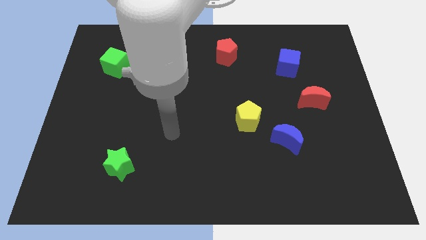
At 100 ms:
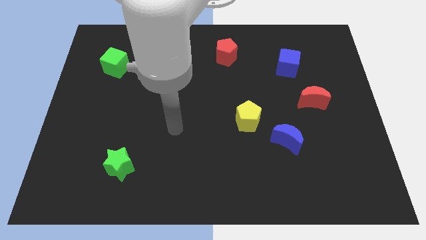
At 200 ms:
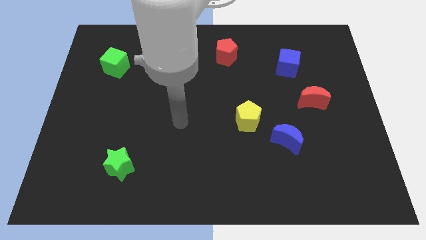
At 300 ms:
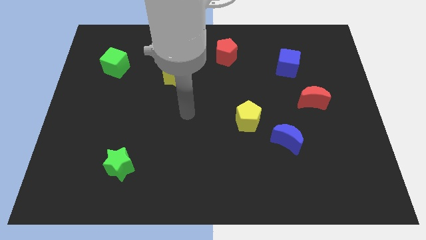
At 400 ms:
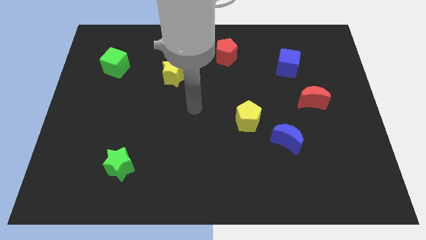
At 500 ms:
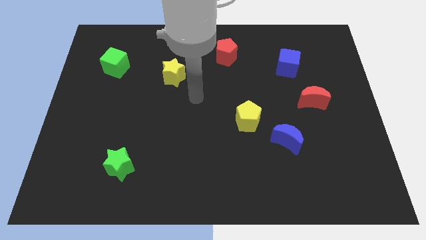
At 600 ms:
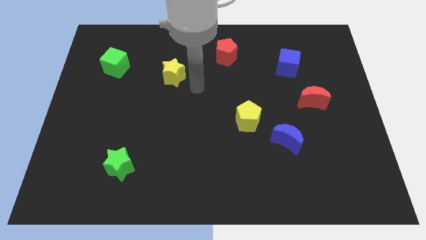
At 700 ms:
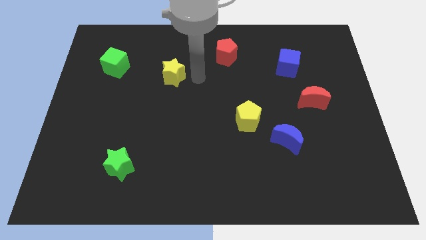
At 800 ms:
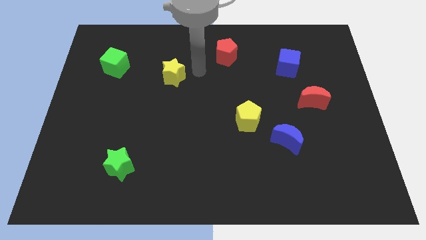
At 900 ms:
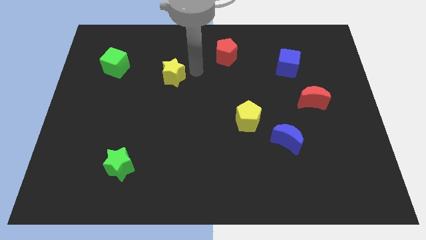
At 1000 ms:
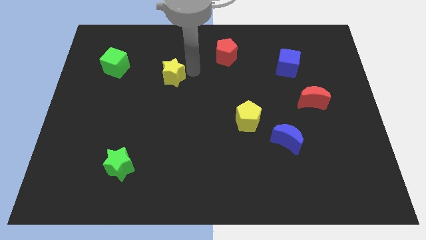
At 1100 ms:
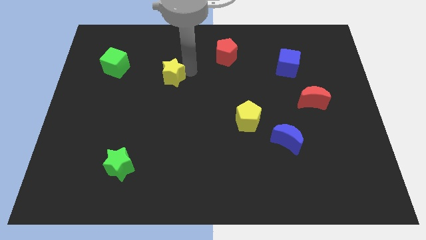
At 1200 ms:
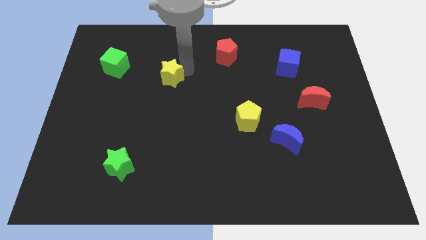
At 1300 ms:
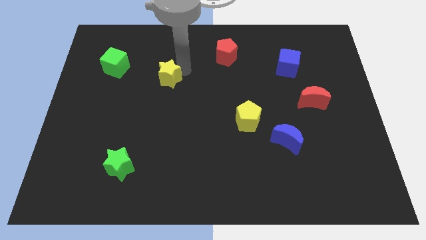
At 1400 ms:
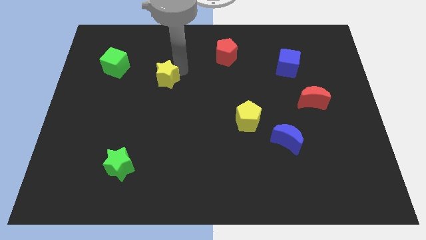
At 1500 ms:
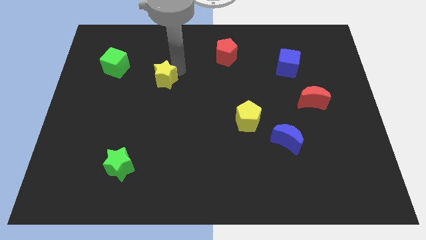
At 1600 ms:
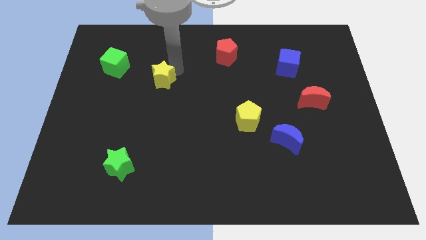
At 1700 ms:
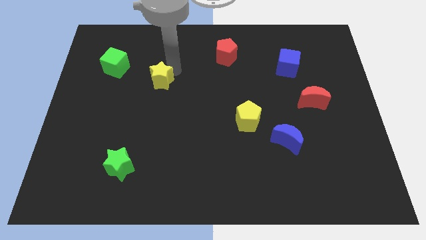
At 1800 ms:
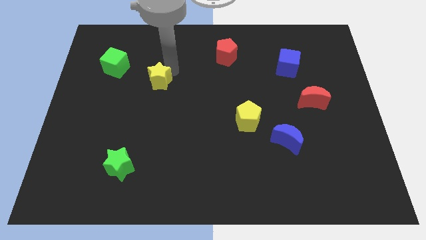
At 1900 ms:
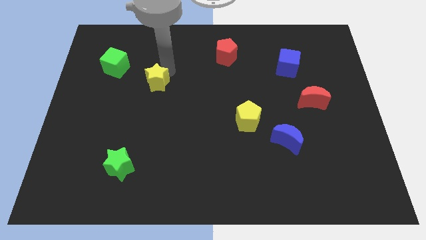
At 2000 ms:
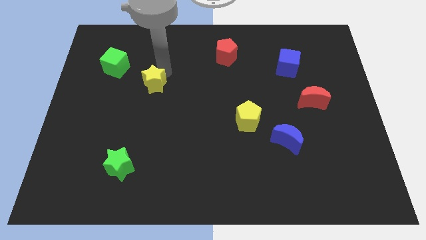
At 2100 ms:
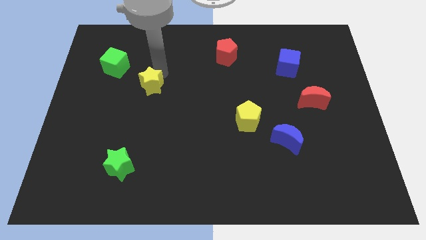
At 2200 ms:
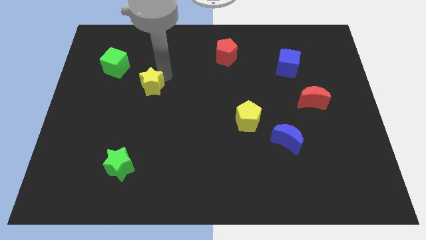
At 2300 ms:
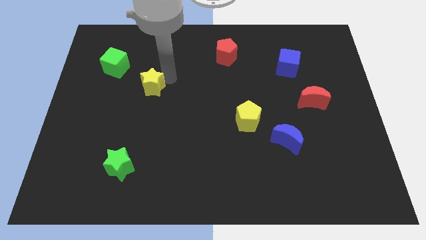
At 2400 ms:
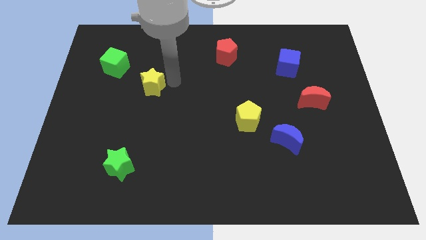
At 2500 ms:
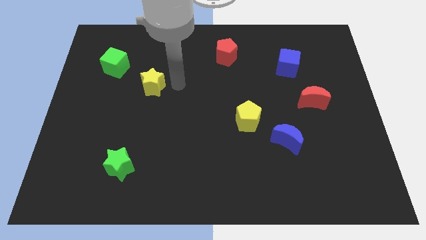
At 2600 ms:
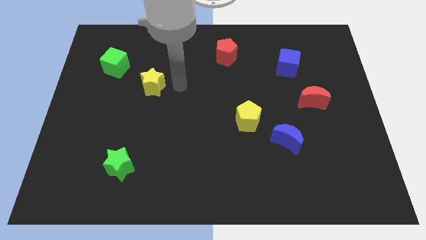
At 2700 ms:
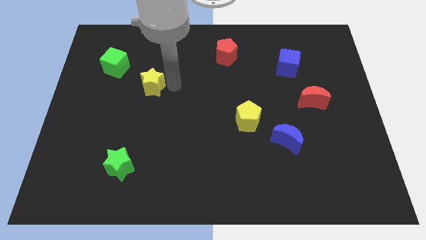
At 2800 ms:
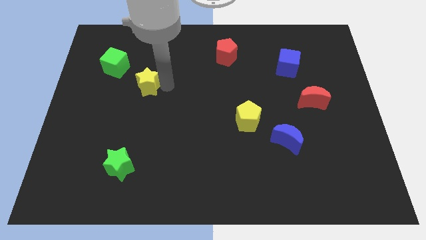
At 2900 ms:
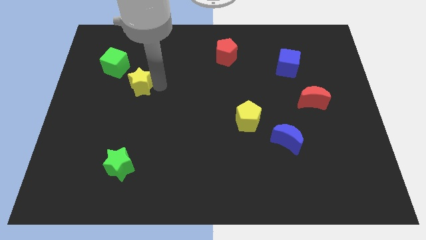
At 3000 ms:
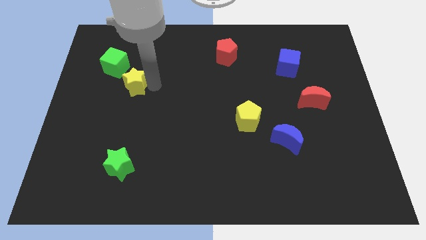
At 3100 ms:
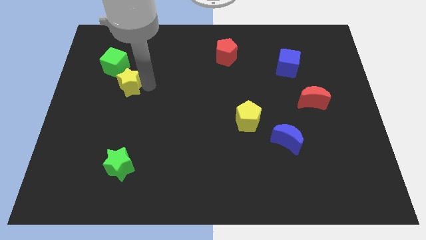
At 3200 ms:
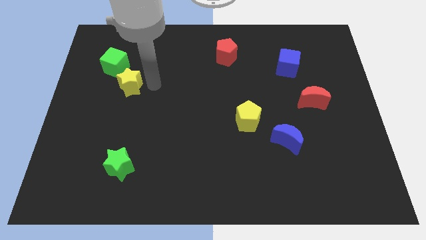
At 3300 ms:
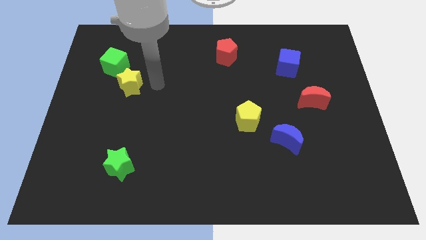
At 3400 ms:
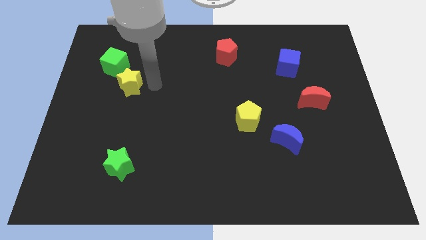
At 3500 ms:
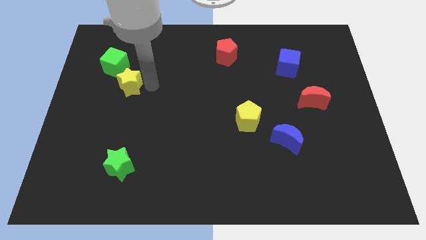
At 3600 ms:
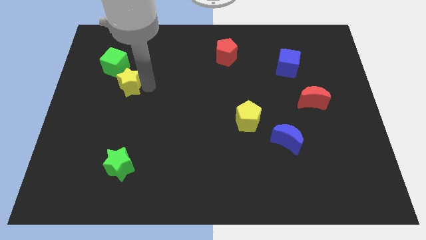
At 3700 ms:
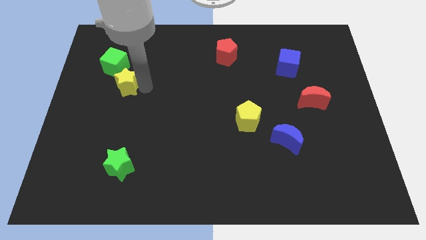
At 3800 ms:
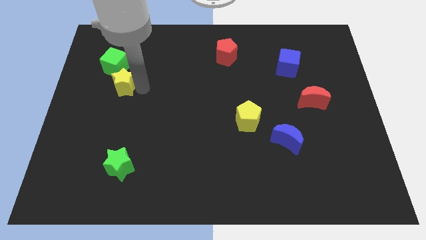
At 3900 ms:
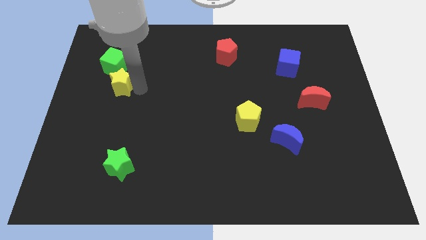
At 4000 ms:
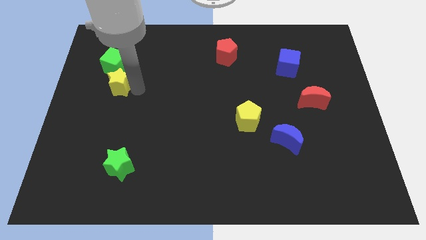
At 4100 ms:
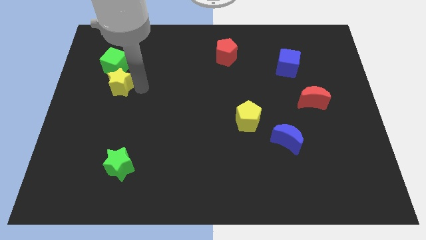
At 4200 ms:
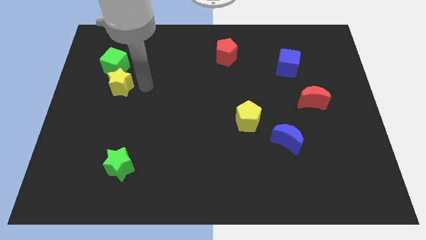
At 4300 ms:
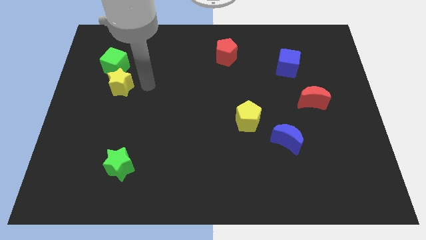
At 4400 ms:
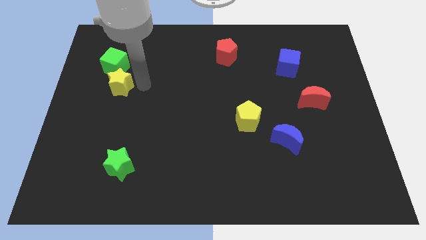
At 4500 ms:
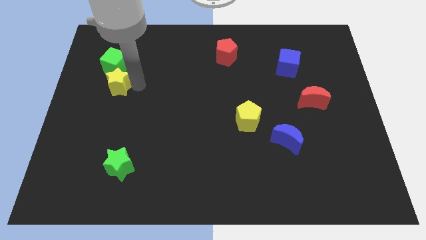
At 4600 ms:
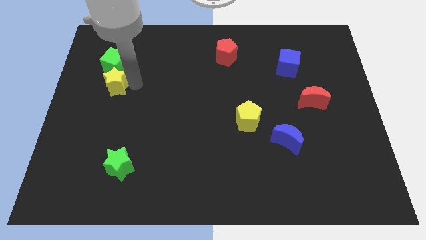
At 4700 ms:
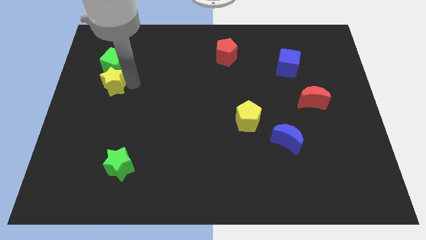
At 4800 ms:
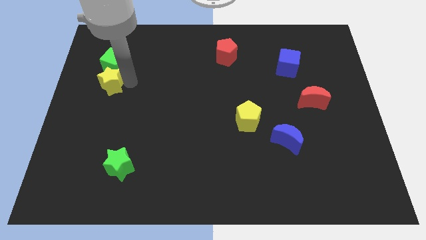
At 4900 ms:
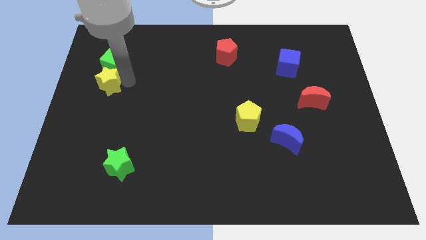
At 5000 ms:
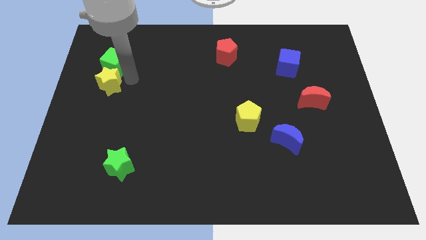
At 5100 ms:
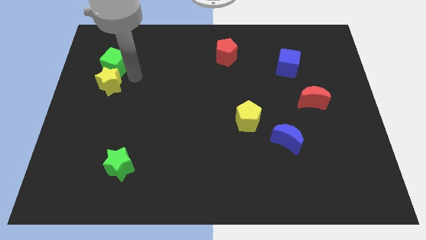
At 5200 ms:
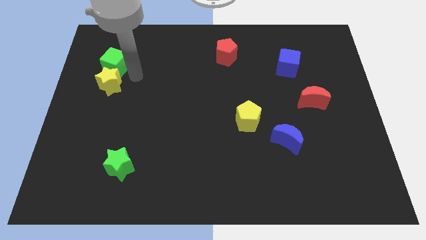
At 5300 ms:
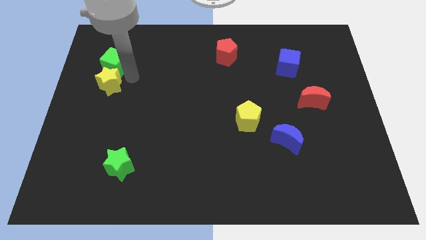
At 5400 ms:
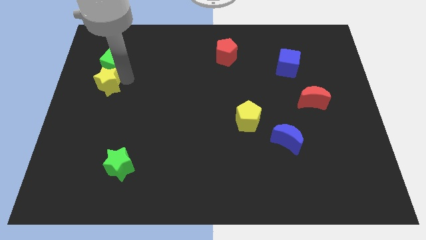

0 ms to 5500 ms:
move the yellow star to the left side

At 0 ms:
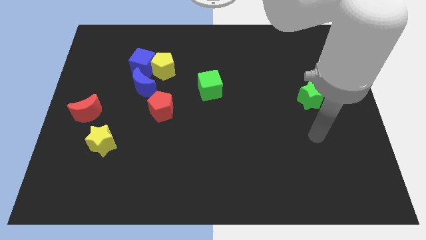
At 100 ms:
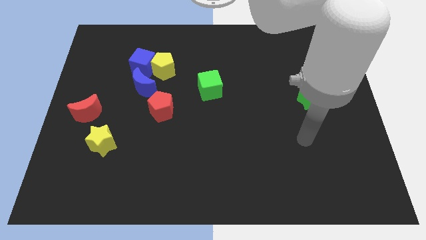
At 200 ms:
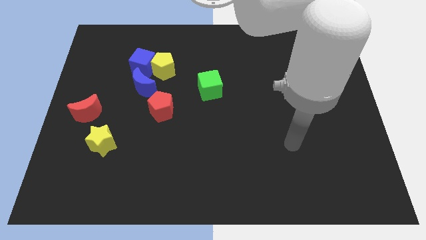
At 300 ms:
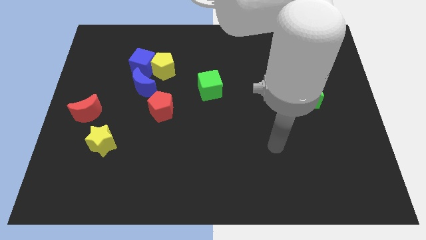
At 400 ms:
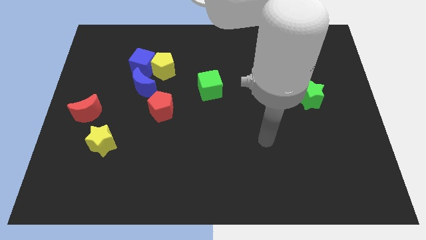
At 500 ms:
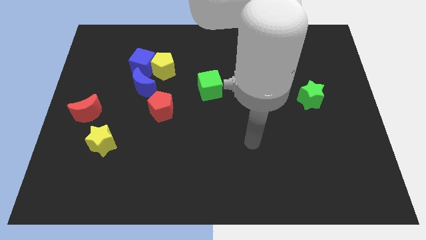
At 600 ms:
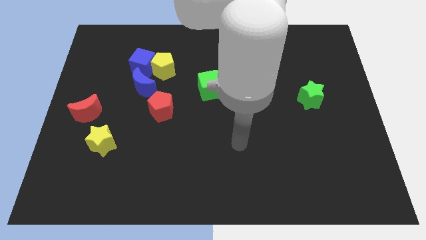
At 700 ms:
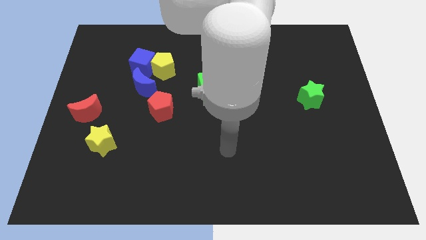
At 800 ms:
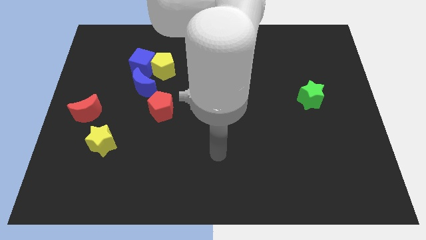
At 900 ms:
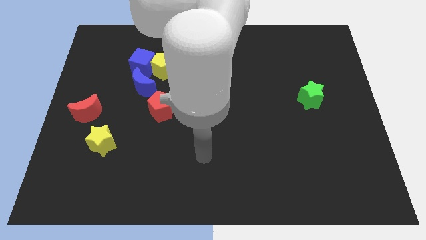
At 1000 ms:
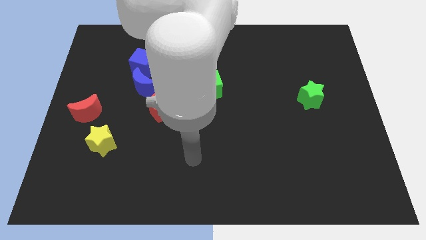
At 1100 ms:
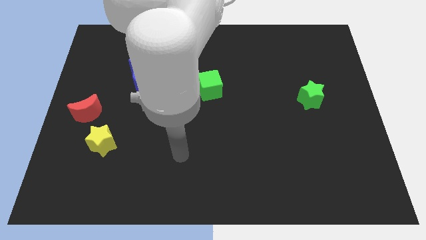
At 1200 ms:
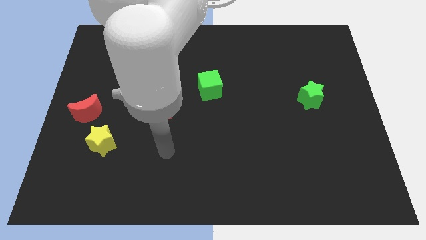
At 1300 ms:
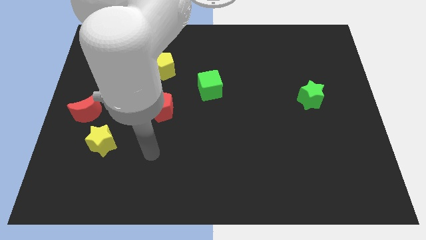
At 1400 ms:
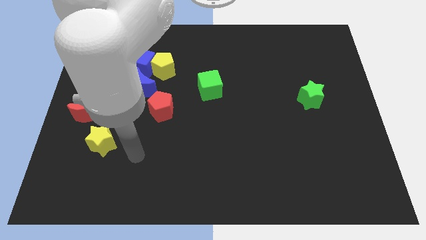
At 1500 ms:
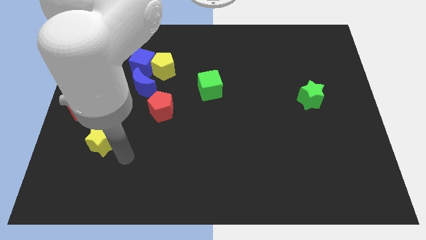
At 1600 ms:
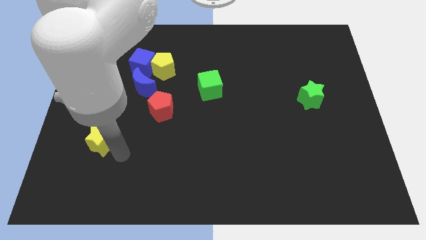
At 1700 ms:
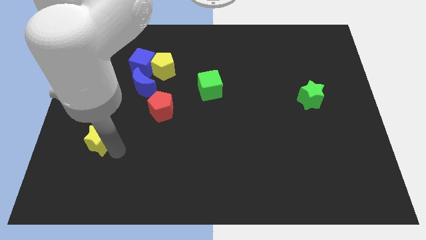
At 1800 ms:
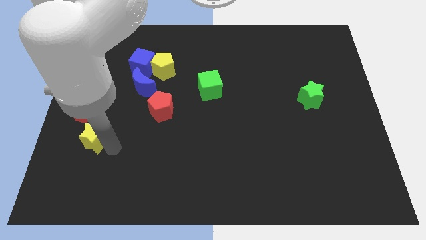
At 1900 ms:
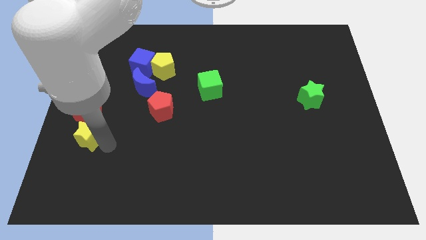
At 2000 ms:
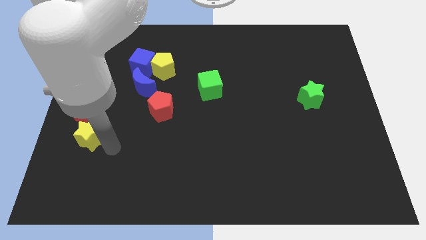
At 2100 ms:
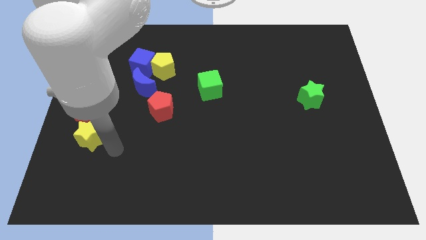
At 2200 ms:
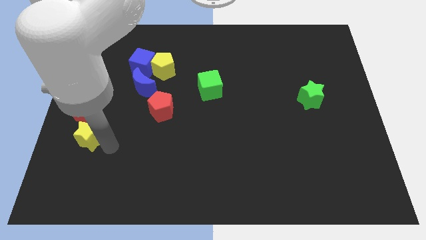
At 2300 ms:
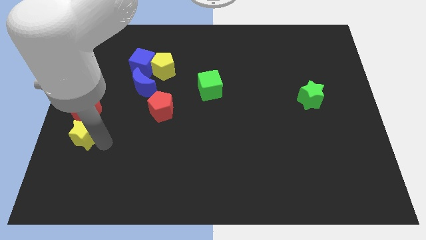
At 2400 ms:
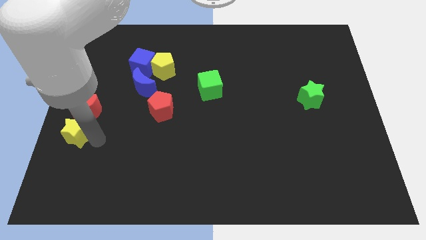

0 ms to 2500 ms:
put the yellow star to the left side
